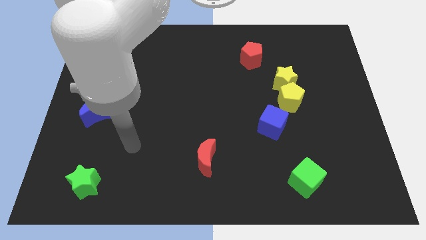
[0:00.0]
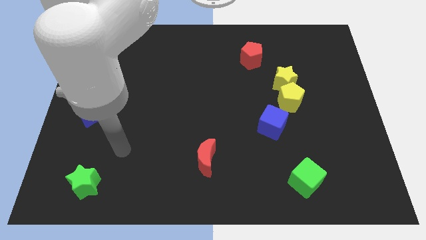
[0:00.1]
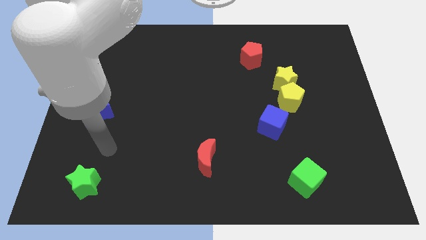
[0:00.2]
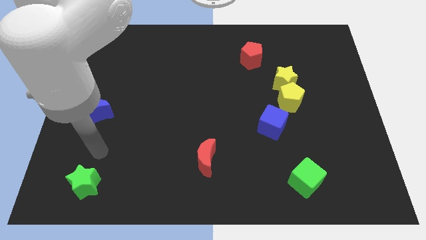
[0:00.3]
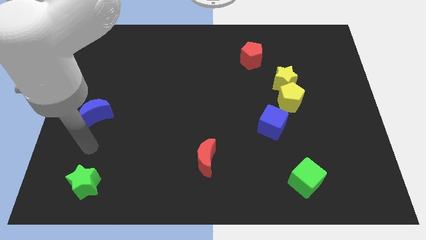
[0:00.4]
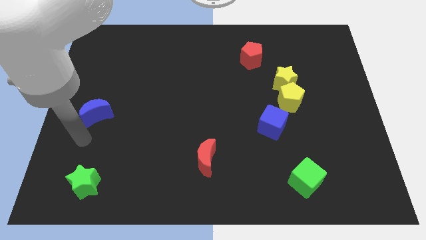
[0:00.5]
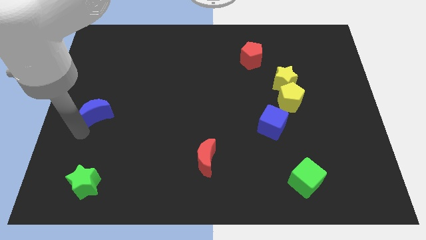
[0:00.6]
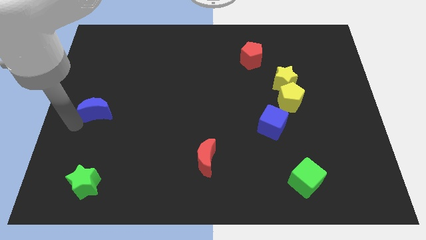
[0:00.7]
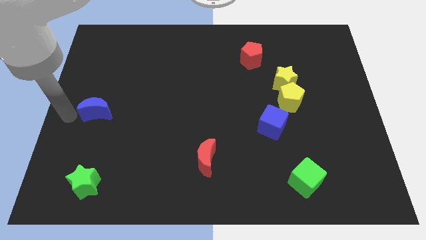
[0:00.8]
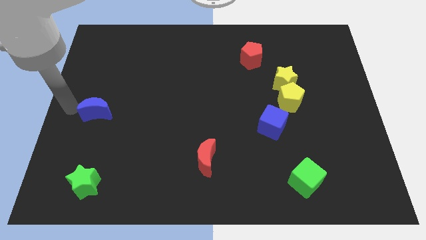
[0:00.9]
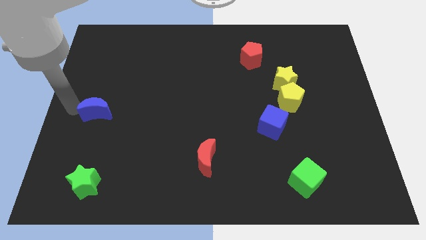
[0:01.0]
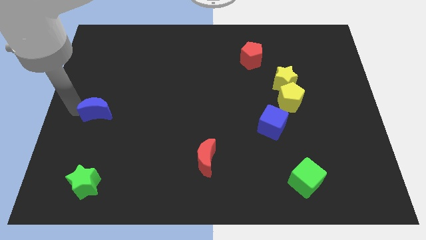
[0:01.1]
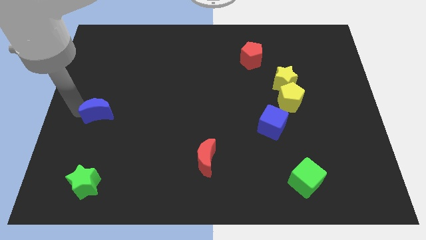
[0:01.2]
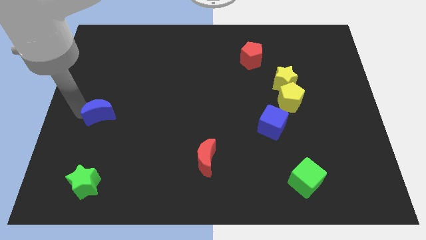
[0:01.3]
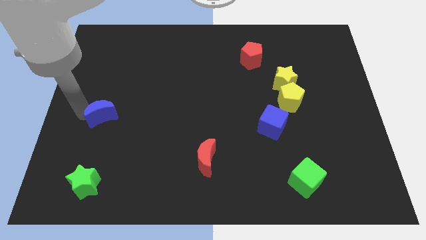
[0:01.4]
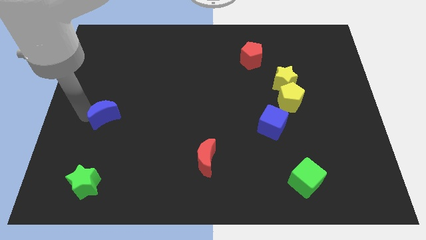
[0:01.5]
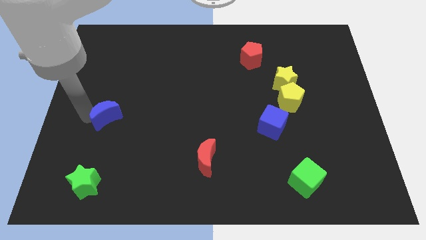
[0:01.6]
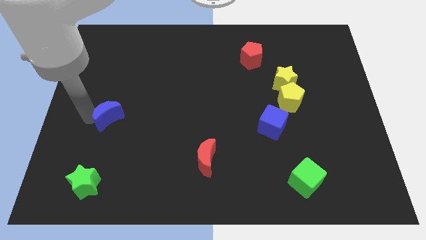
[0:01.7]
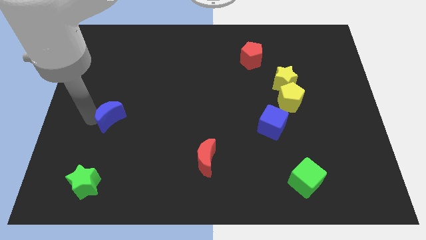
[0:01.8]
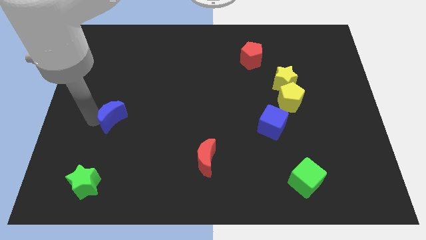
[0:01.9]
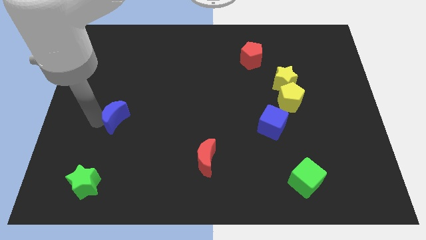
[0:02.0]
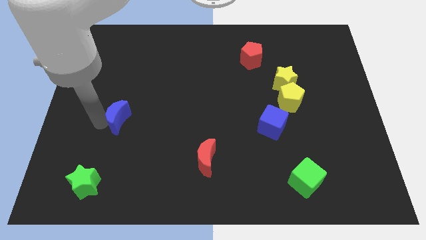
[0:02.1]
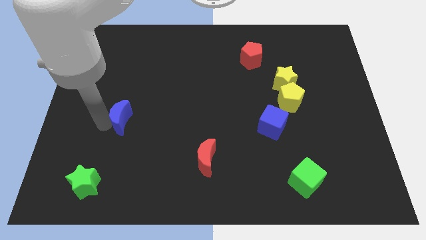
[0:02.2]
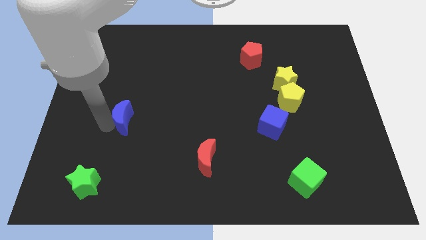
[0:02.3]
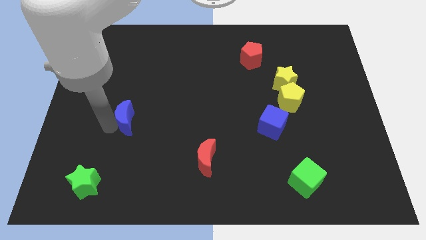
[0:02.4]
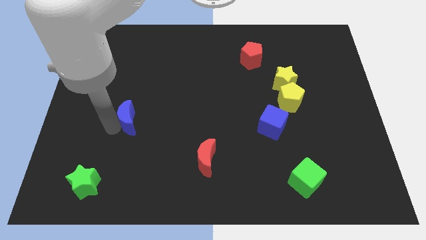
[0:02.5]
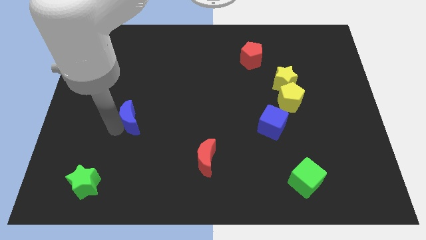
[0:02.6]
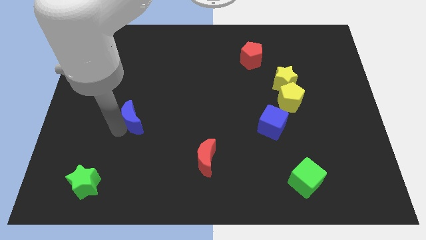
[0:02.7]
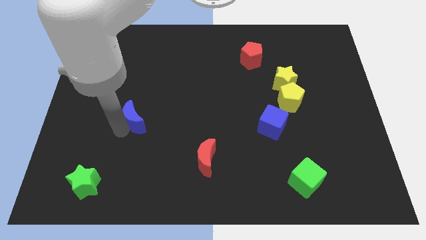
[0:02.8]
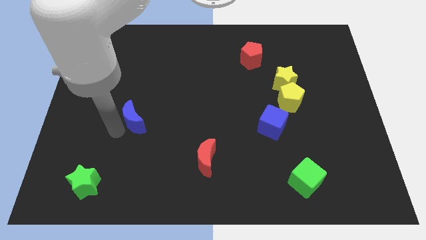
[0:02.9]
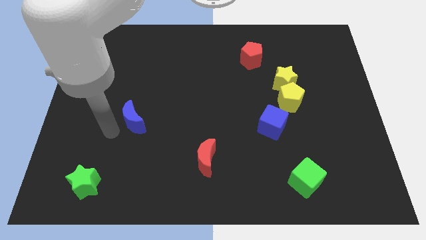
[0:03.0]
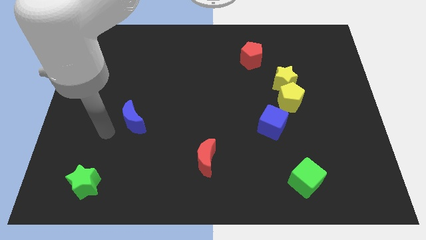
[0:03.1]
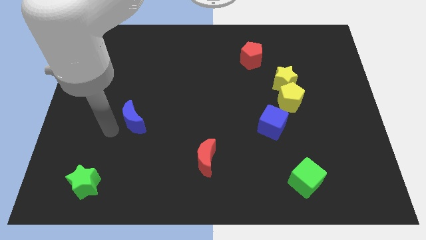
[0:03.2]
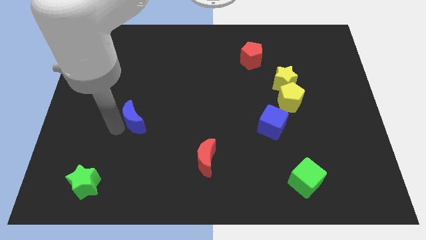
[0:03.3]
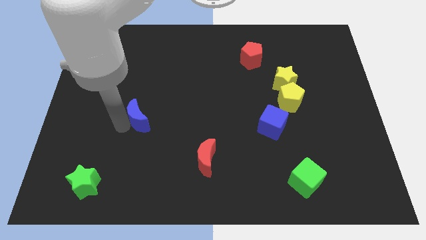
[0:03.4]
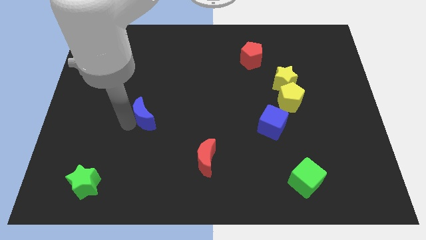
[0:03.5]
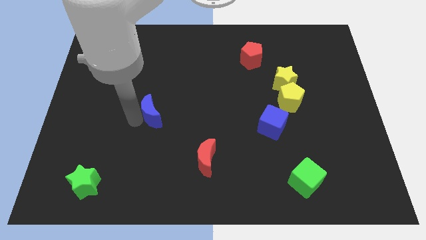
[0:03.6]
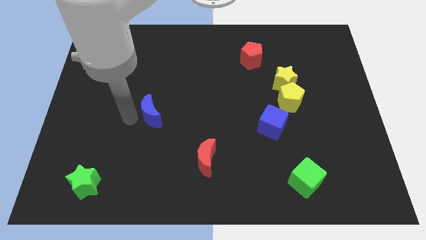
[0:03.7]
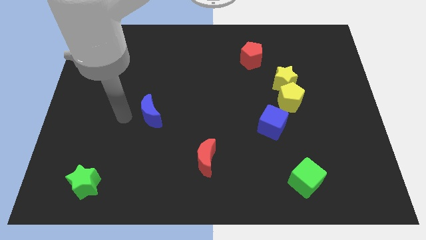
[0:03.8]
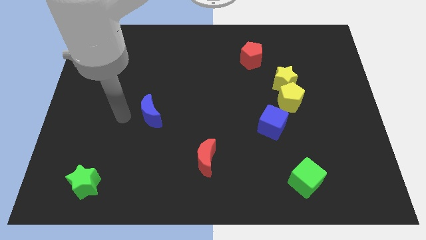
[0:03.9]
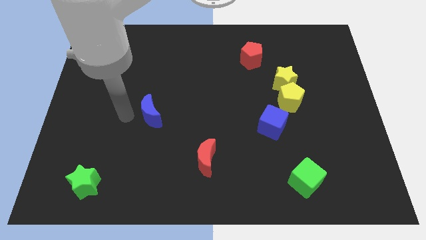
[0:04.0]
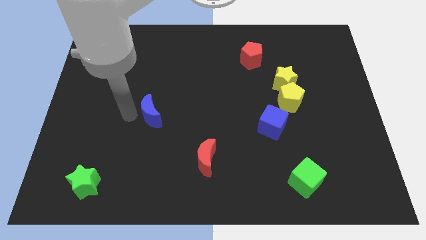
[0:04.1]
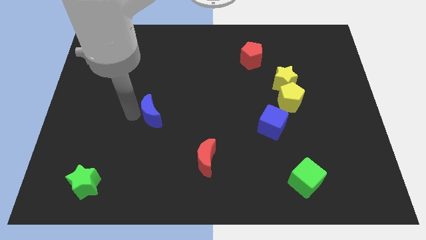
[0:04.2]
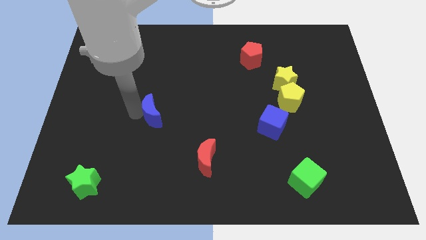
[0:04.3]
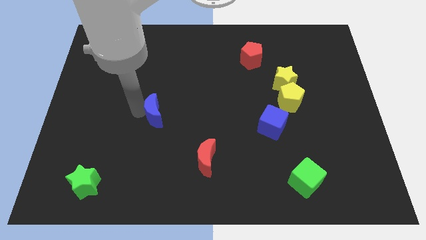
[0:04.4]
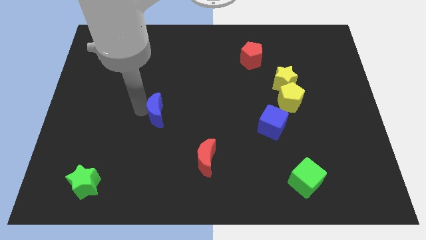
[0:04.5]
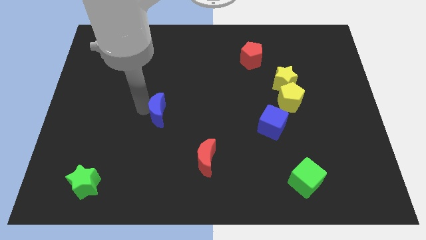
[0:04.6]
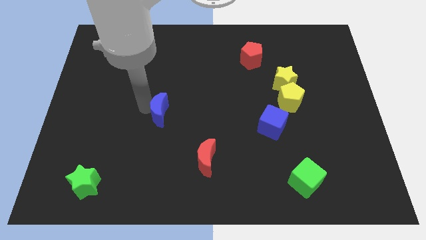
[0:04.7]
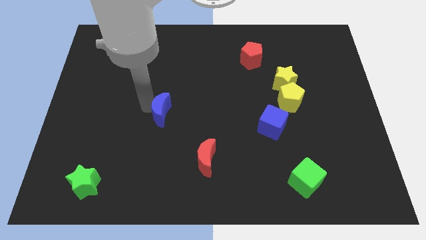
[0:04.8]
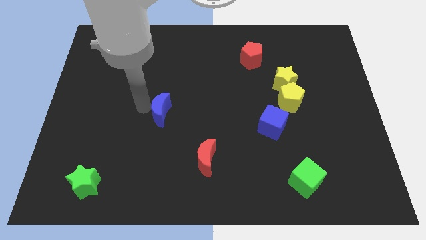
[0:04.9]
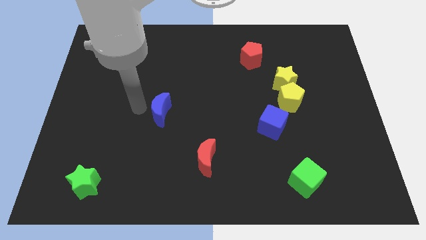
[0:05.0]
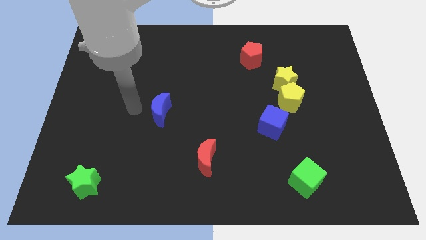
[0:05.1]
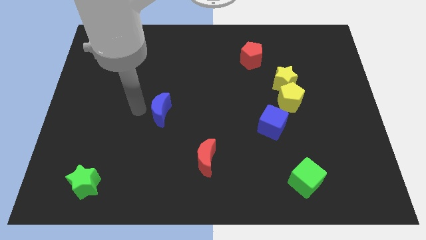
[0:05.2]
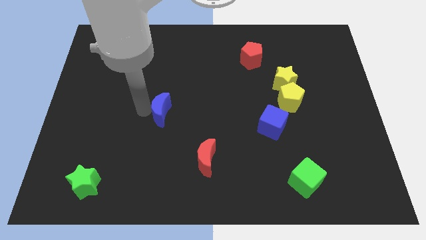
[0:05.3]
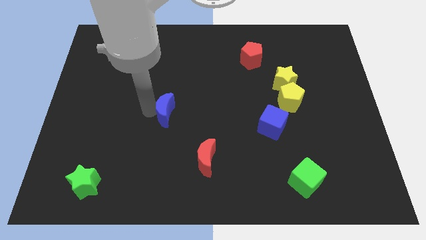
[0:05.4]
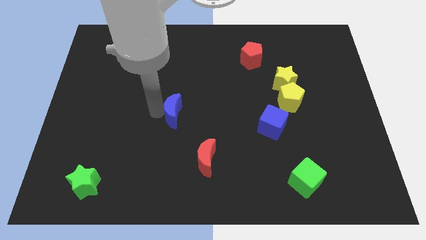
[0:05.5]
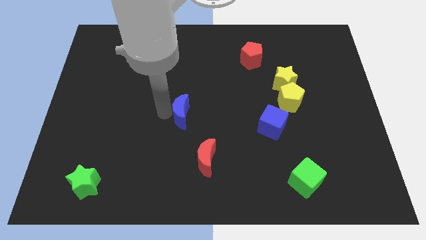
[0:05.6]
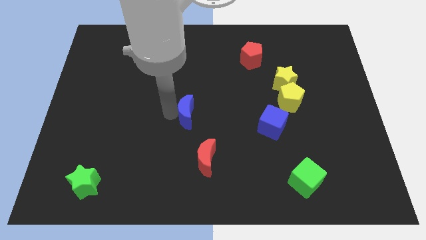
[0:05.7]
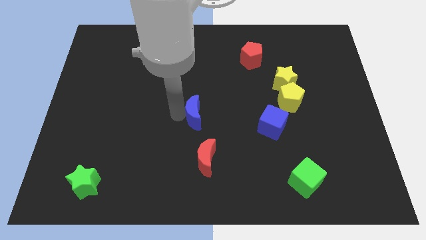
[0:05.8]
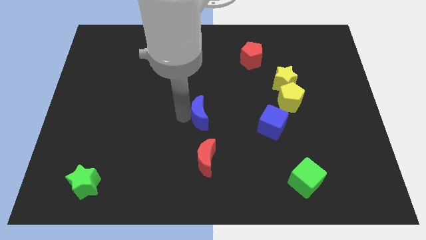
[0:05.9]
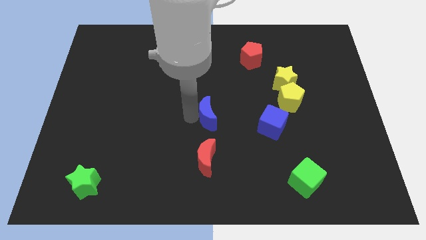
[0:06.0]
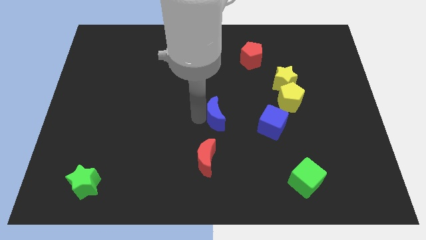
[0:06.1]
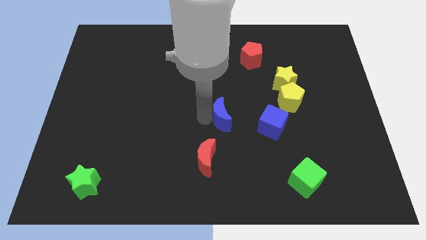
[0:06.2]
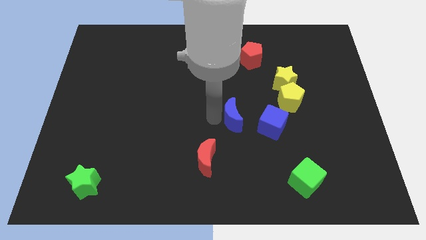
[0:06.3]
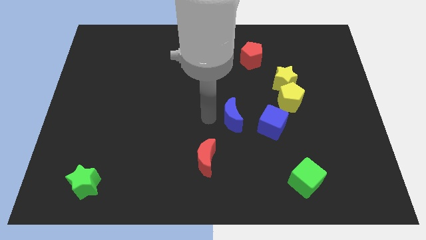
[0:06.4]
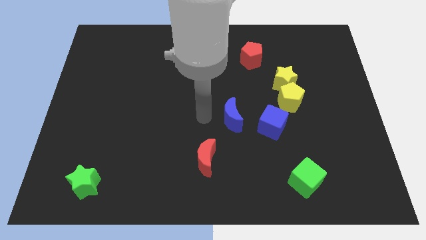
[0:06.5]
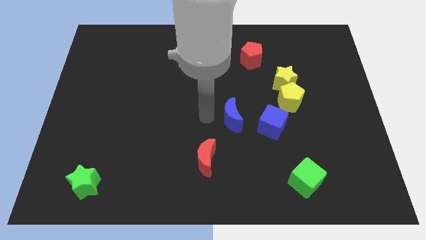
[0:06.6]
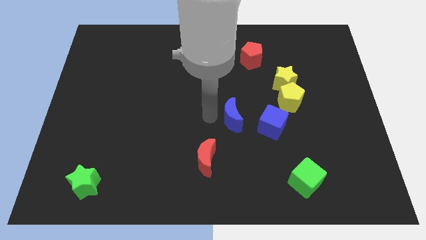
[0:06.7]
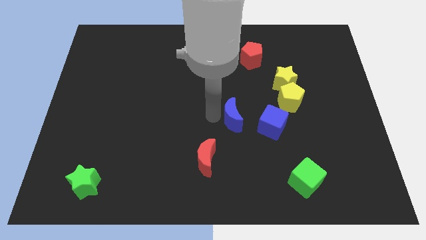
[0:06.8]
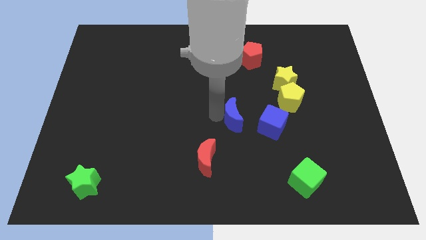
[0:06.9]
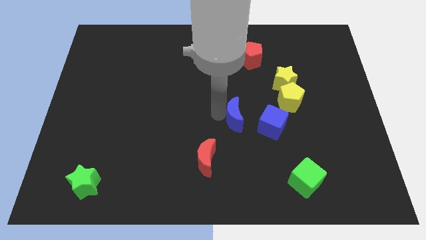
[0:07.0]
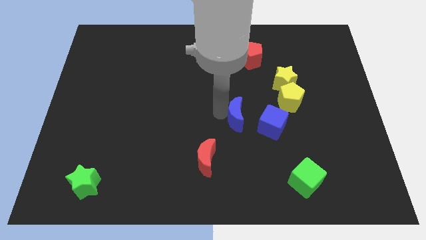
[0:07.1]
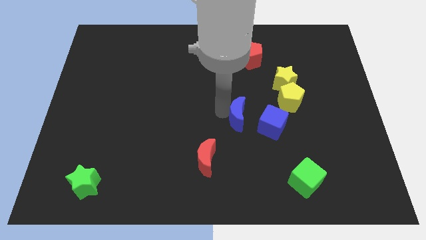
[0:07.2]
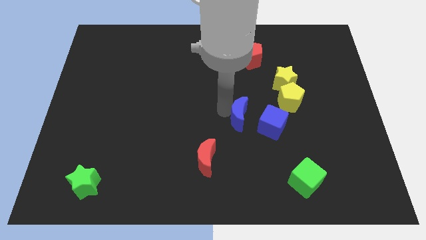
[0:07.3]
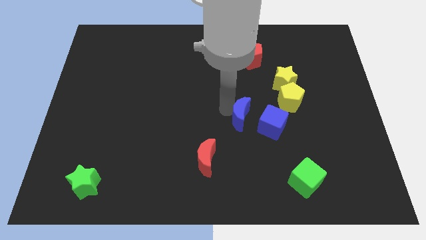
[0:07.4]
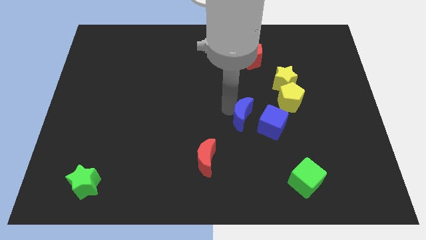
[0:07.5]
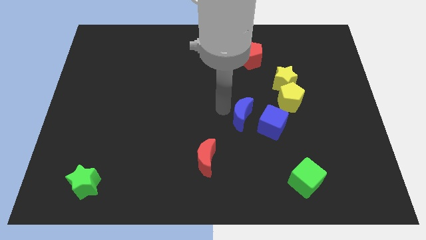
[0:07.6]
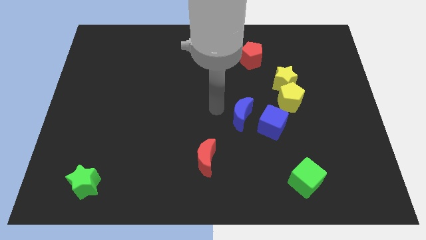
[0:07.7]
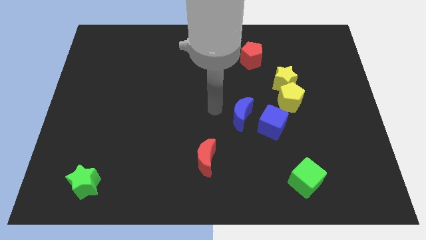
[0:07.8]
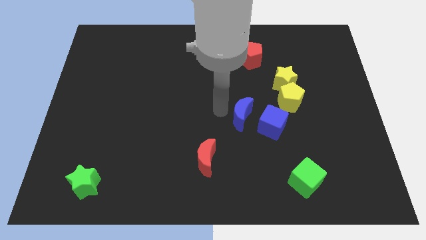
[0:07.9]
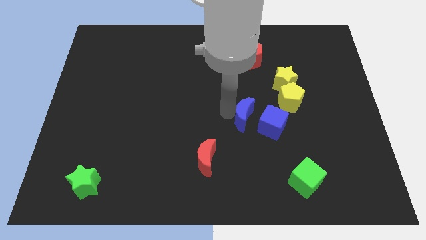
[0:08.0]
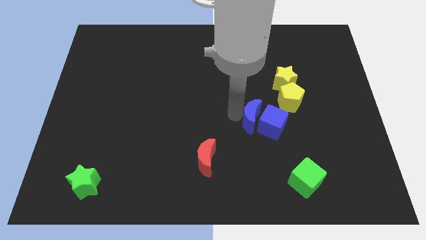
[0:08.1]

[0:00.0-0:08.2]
put the blue moon to the blue cube
